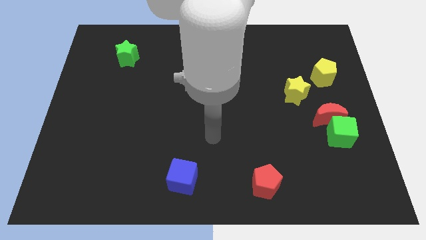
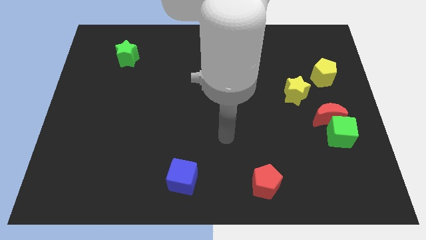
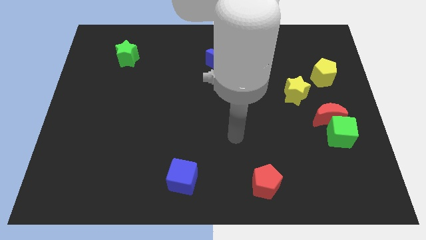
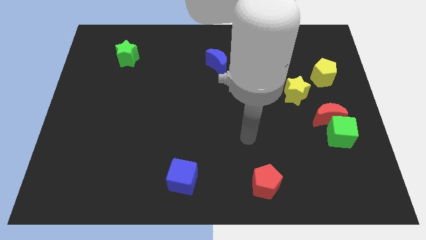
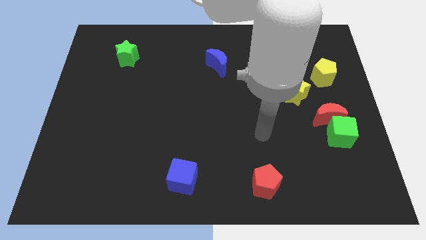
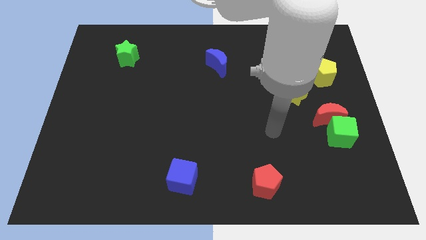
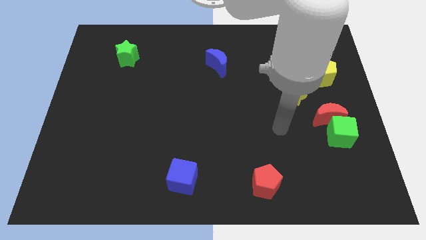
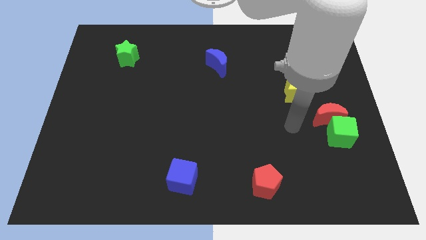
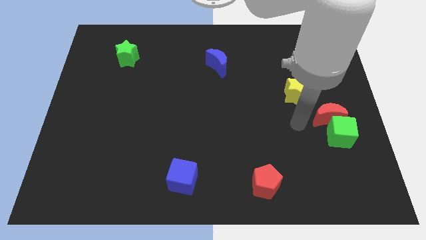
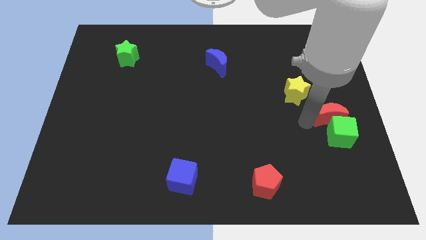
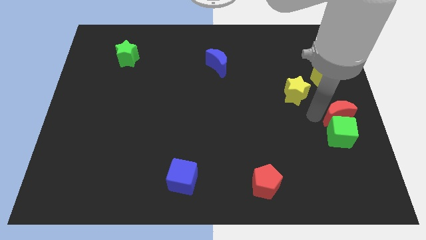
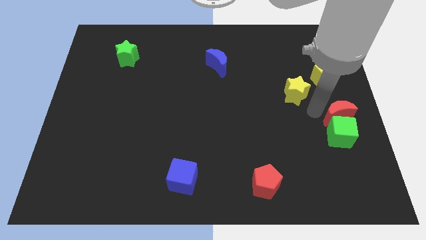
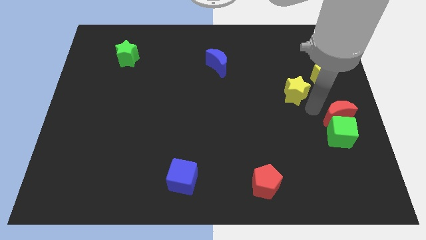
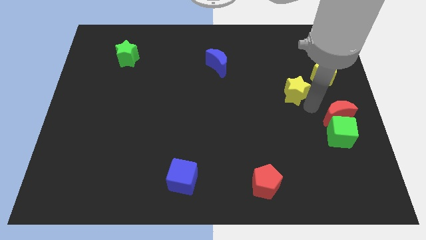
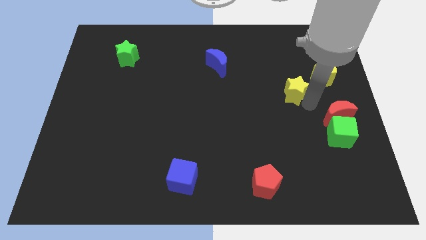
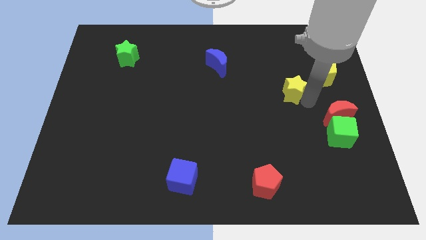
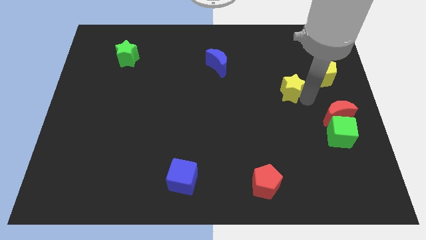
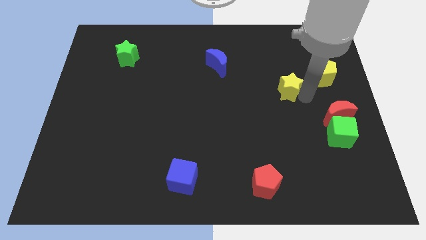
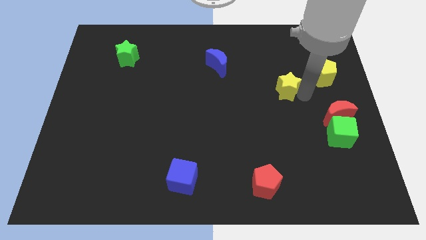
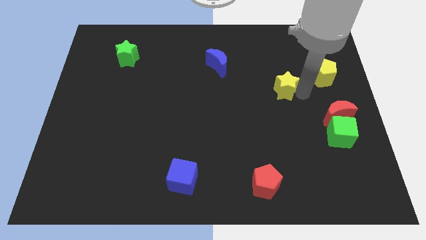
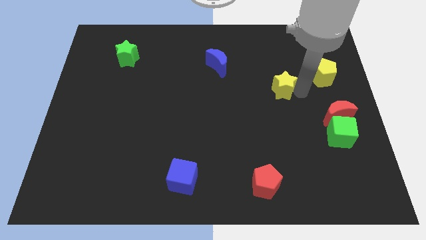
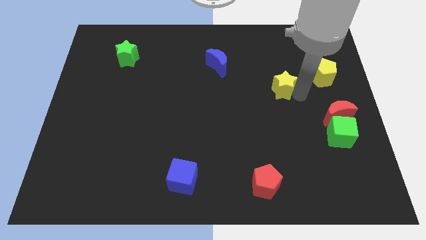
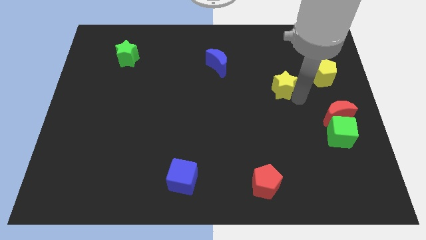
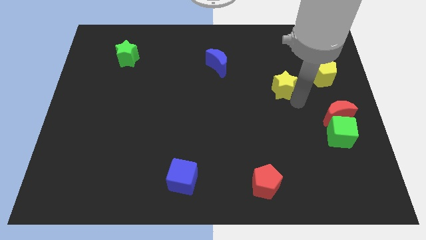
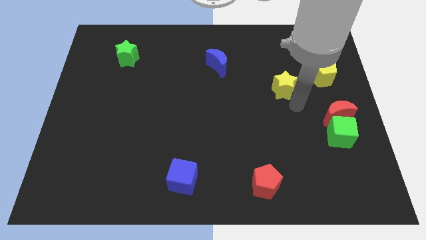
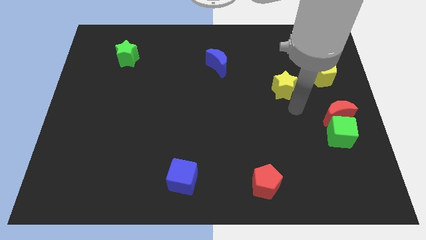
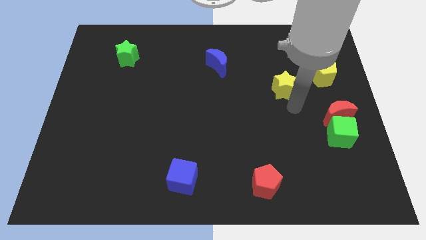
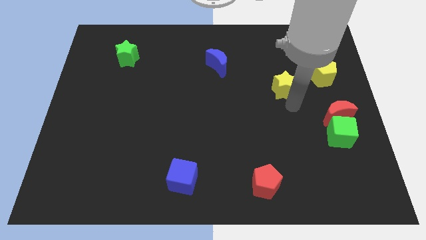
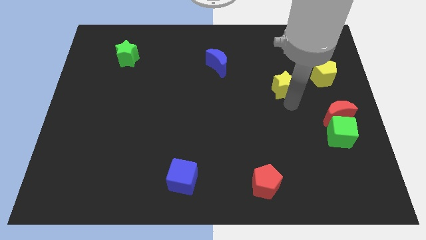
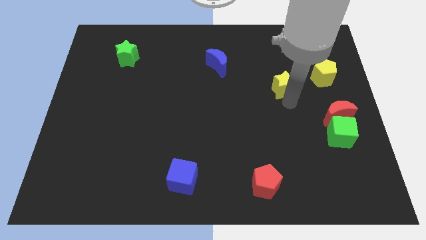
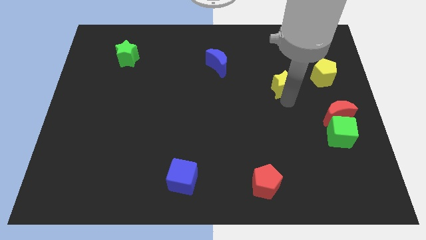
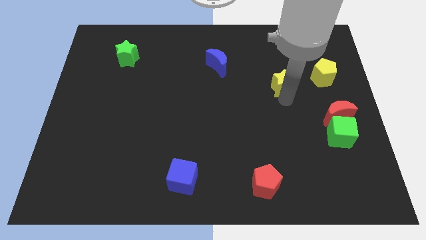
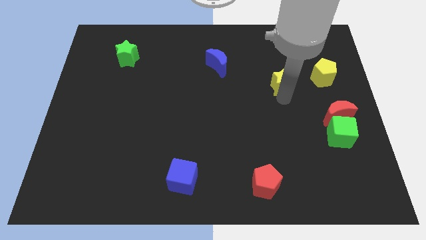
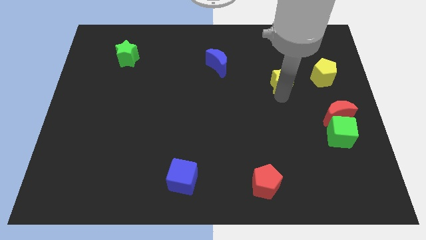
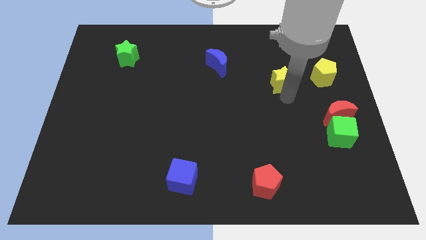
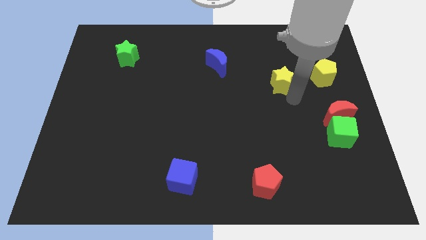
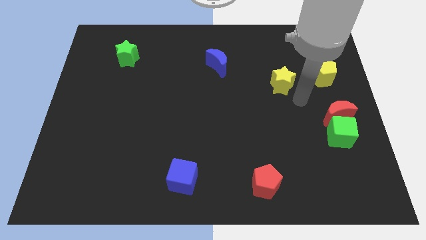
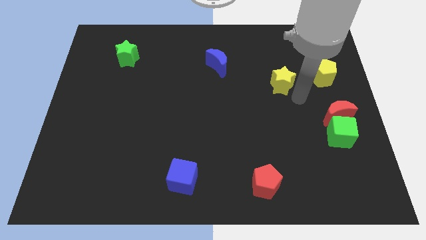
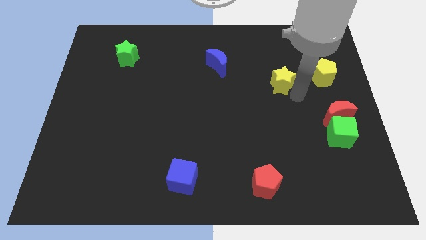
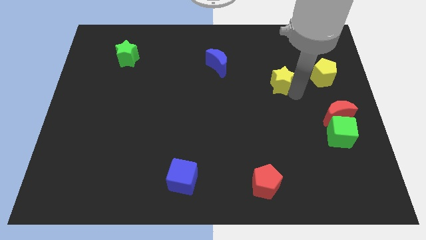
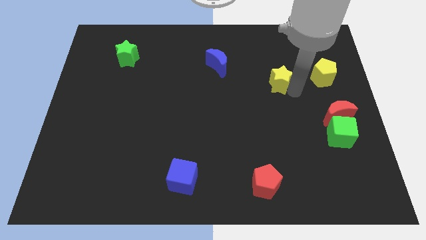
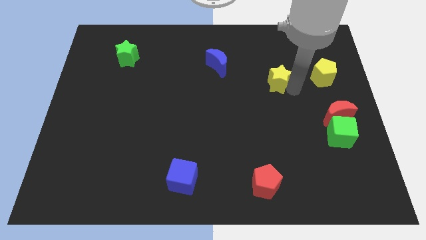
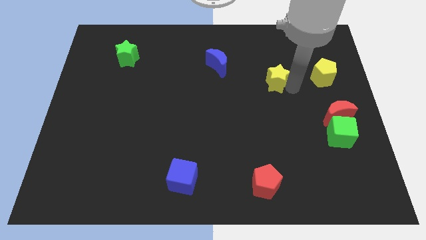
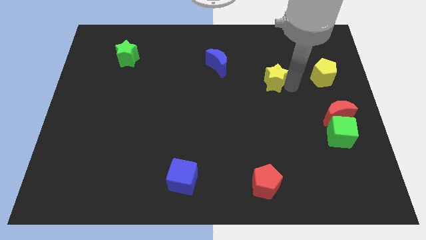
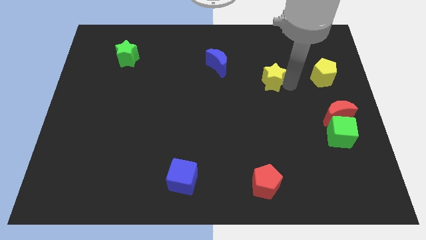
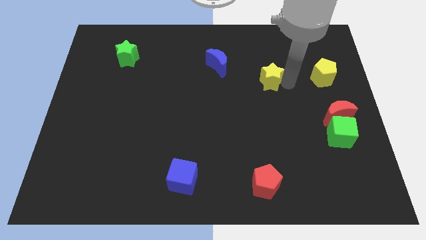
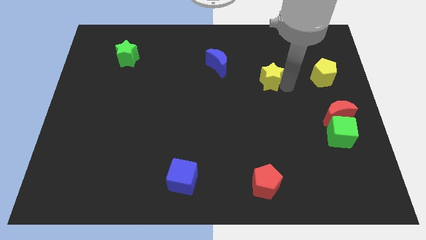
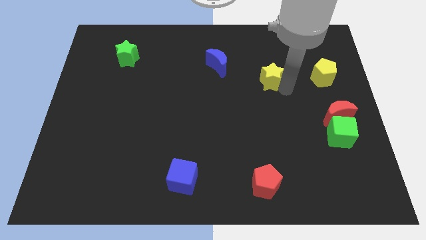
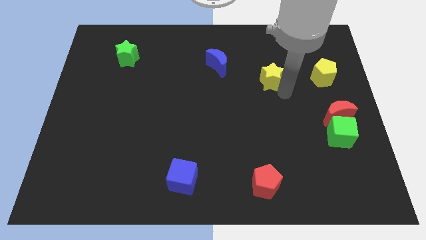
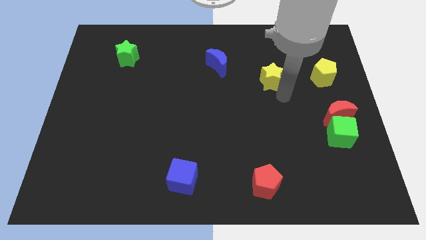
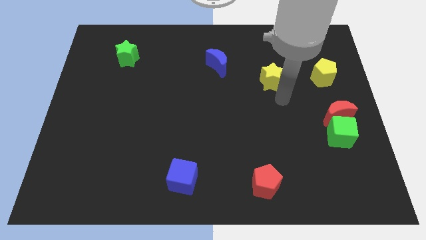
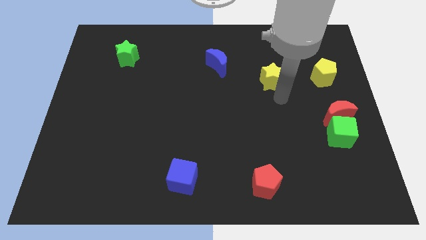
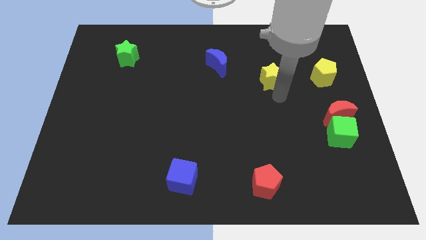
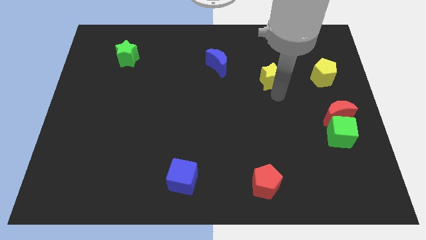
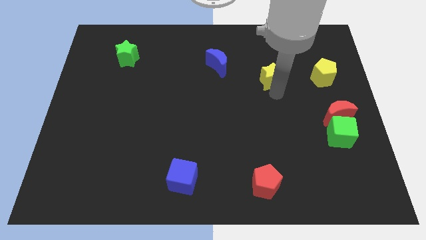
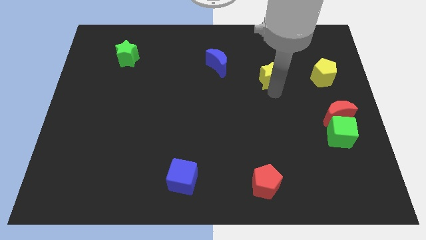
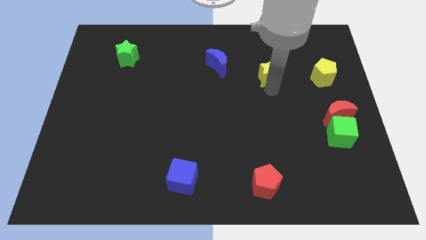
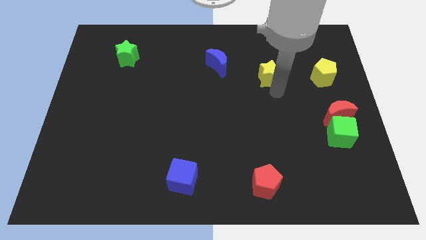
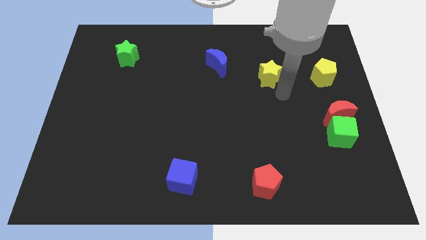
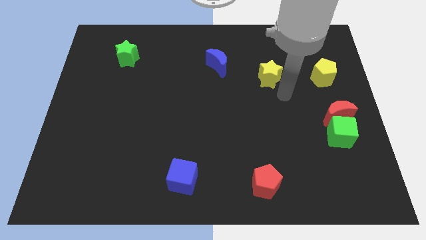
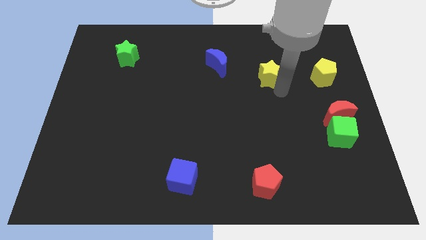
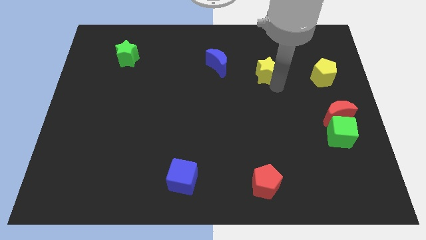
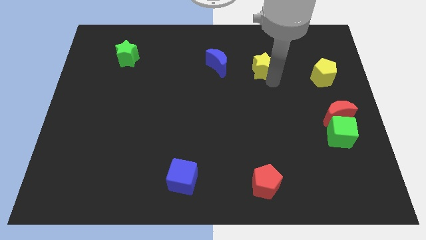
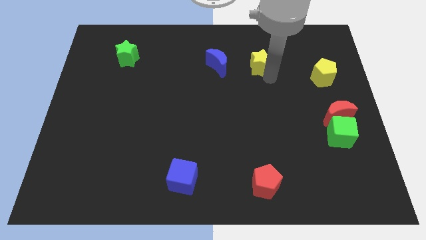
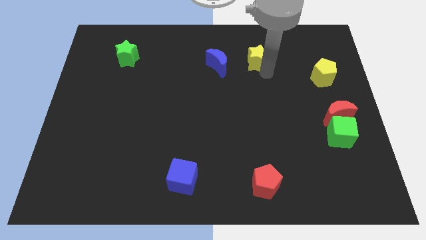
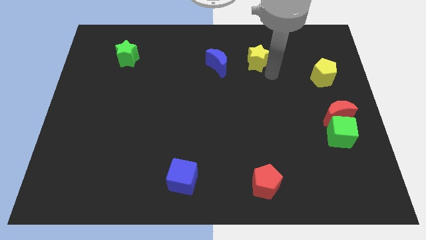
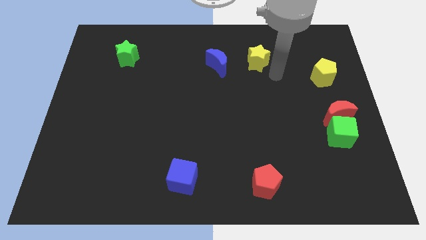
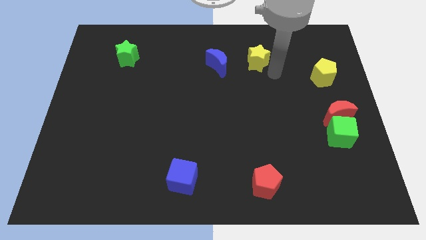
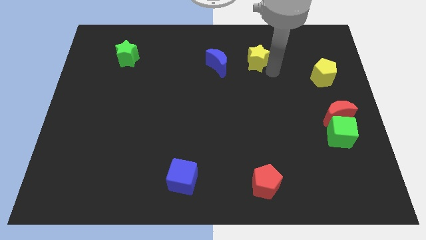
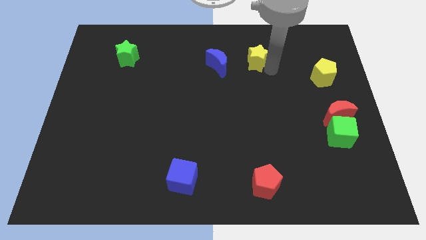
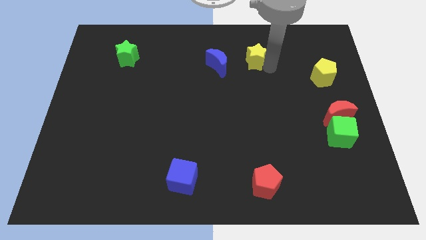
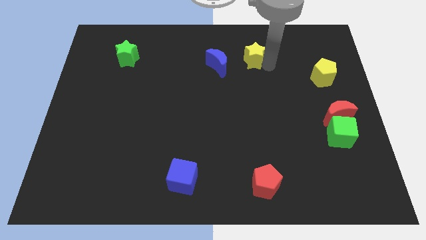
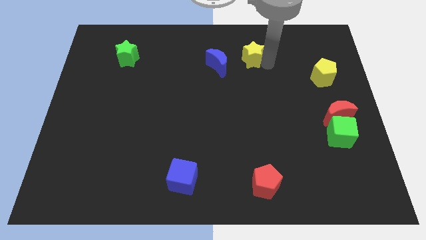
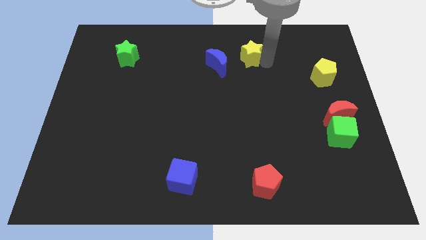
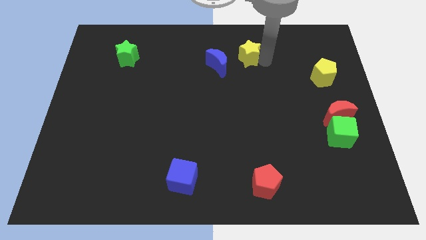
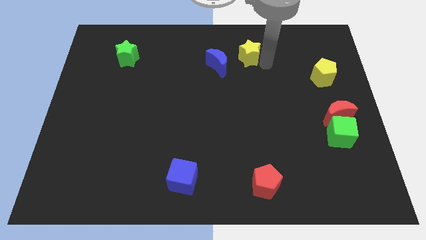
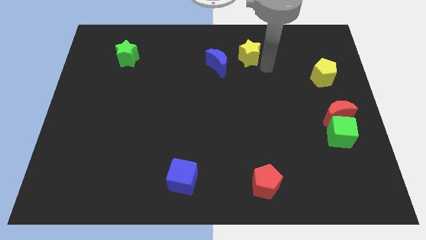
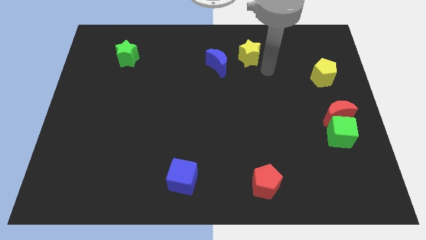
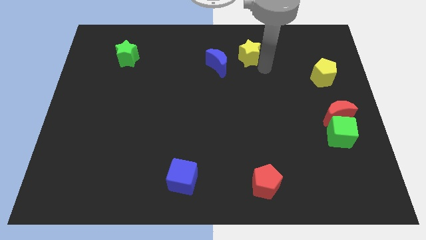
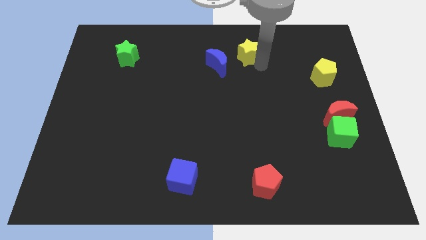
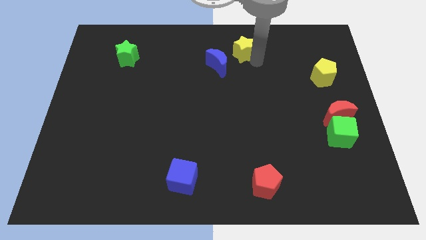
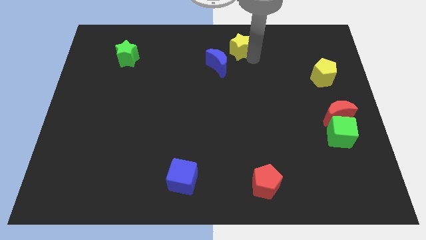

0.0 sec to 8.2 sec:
move the yellow star to the top side
